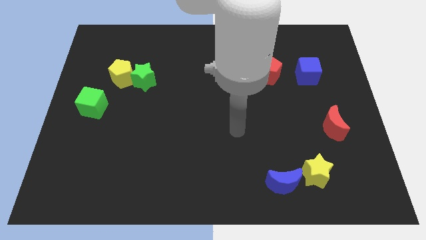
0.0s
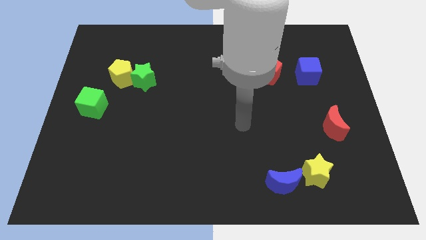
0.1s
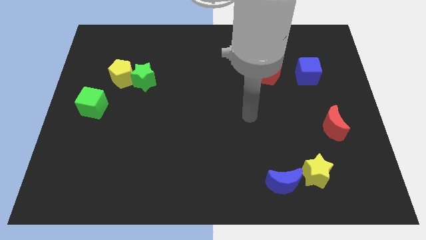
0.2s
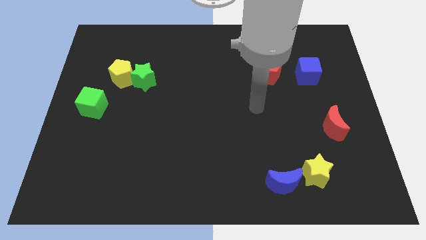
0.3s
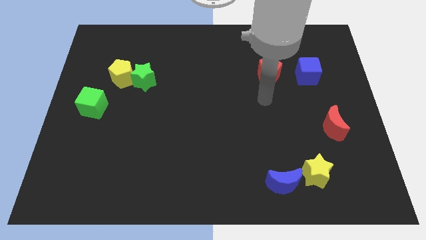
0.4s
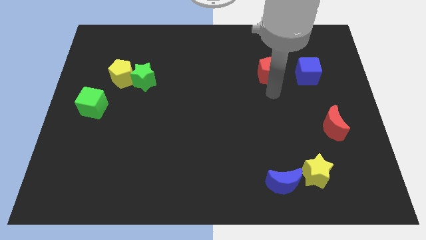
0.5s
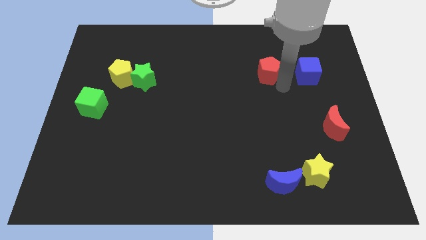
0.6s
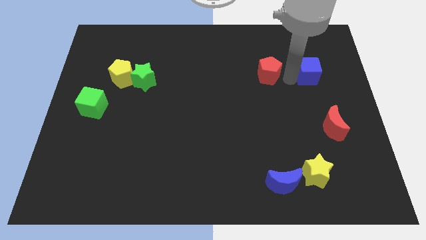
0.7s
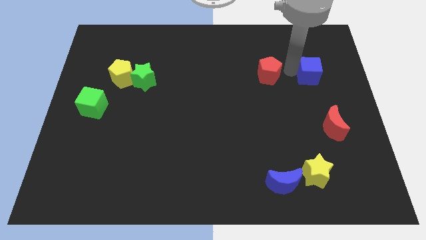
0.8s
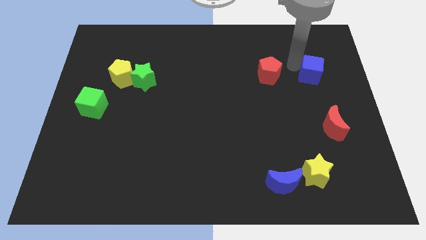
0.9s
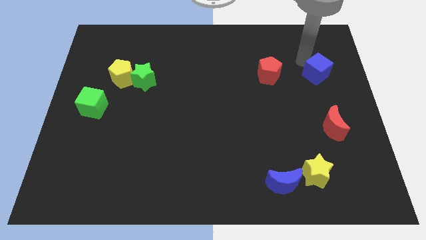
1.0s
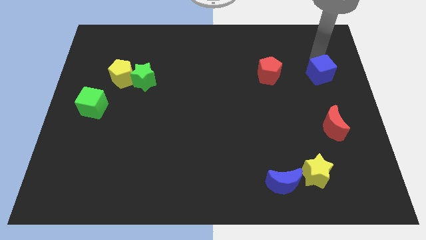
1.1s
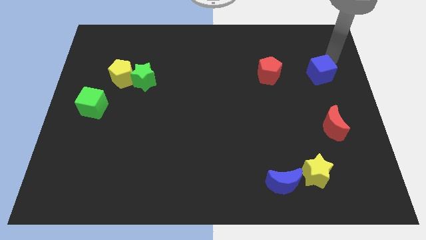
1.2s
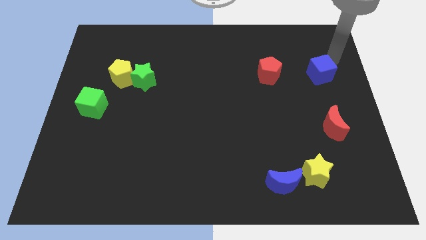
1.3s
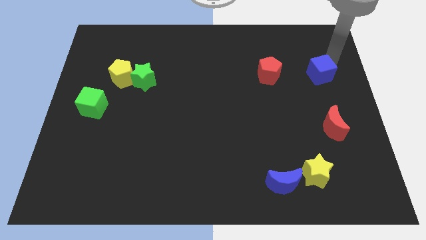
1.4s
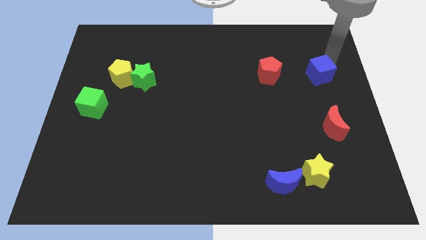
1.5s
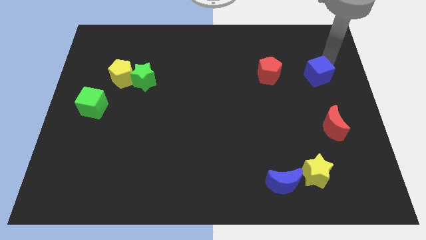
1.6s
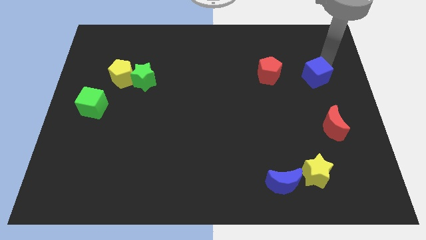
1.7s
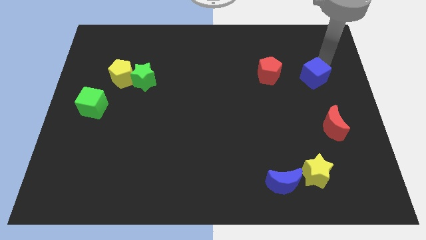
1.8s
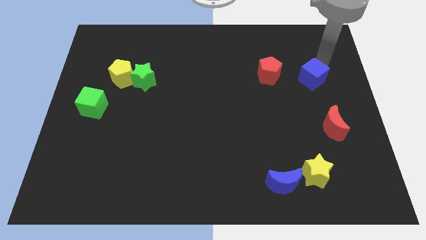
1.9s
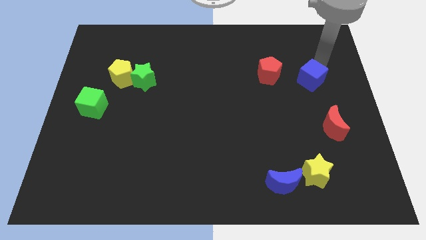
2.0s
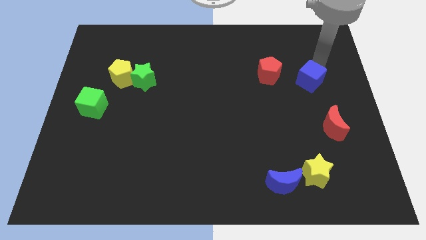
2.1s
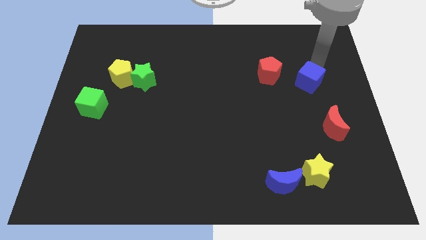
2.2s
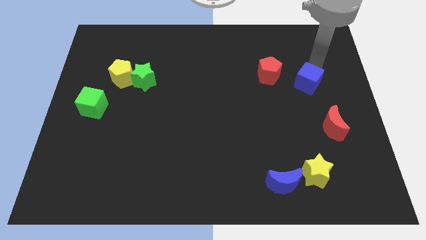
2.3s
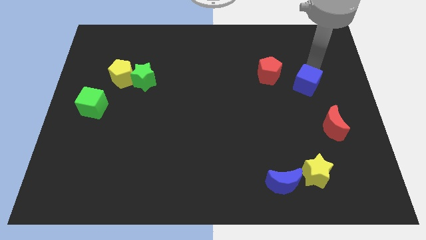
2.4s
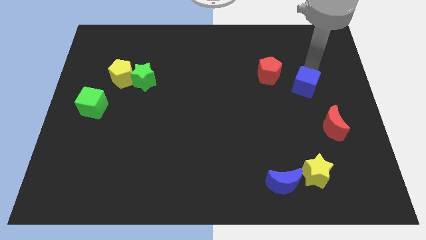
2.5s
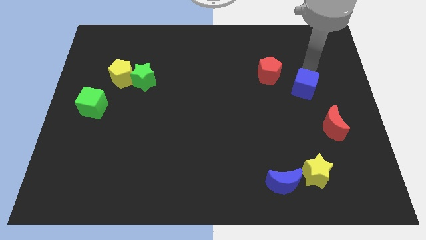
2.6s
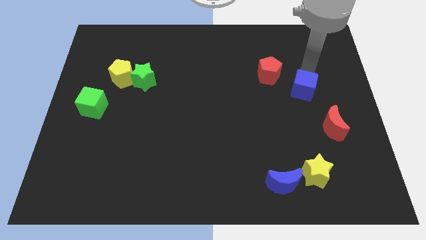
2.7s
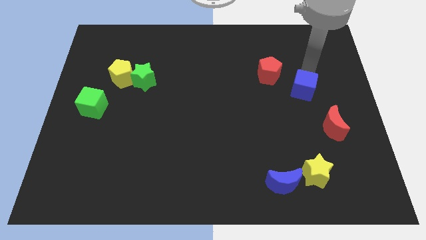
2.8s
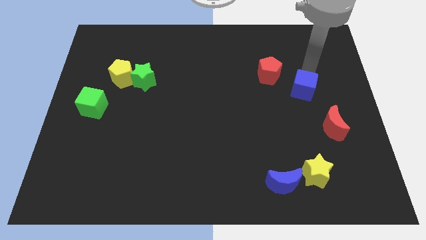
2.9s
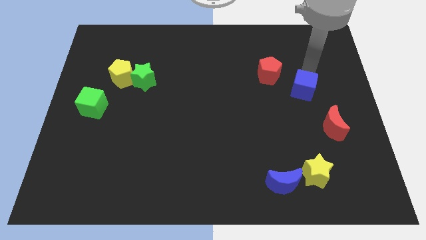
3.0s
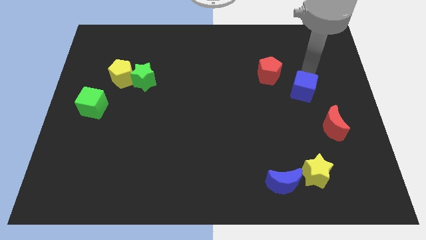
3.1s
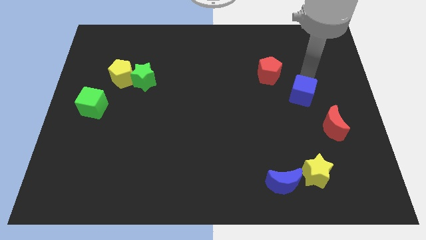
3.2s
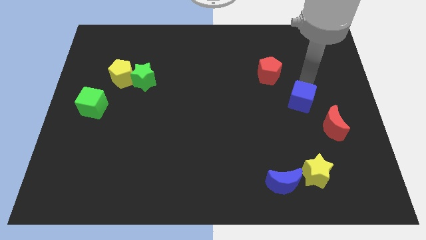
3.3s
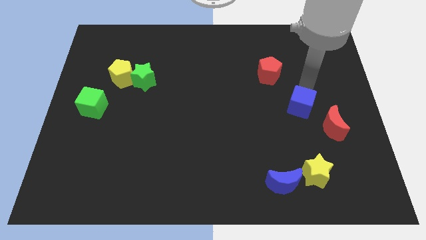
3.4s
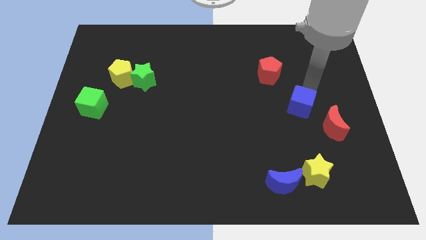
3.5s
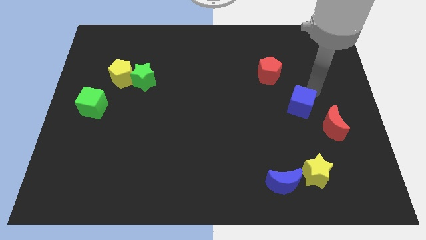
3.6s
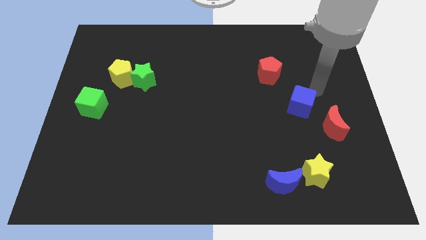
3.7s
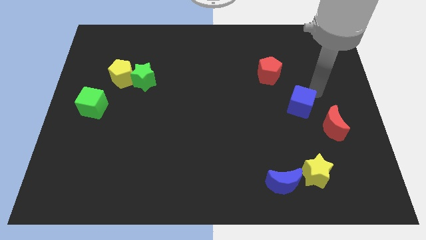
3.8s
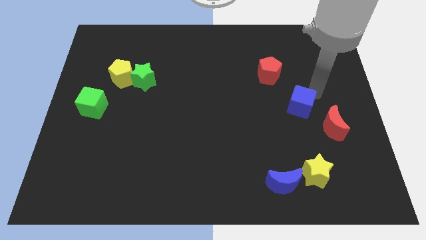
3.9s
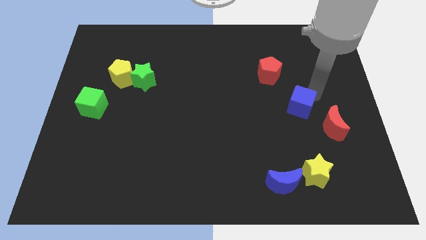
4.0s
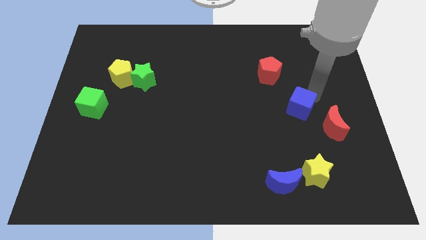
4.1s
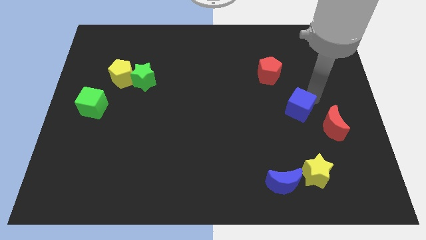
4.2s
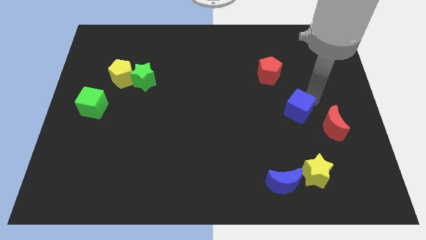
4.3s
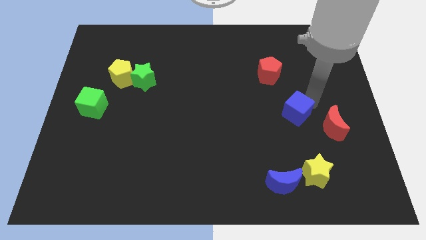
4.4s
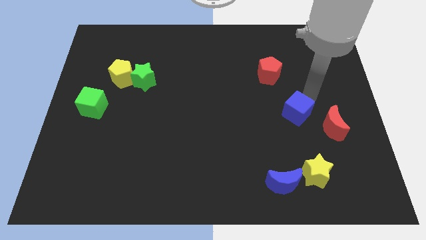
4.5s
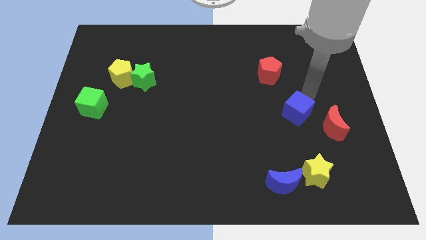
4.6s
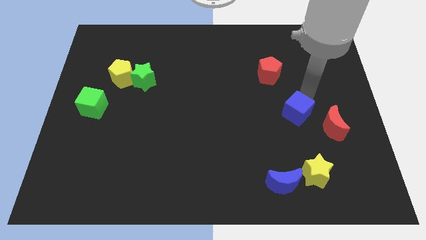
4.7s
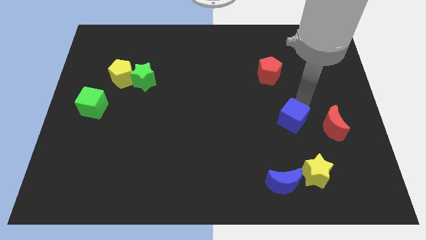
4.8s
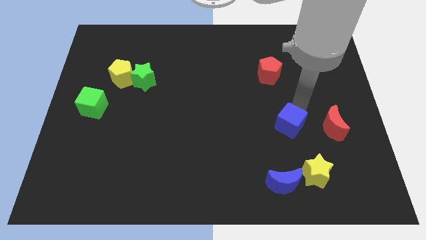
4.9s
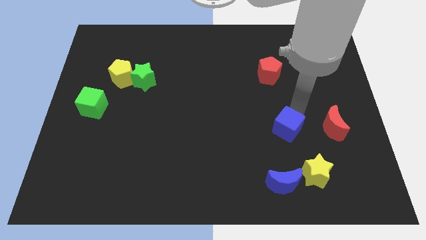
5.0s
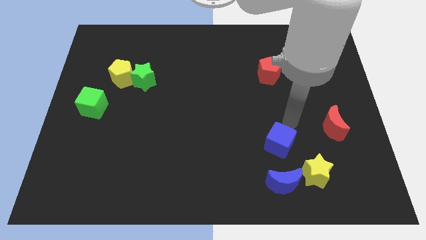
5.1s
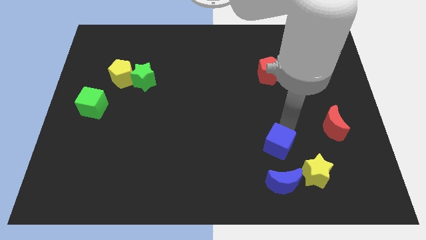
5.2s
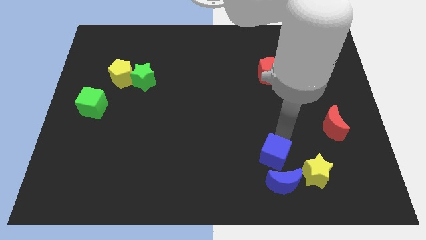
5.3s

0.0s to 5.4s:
move the blue cube to the left of the yellow star

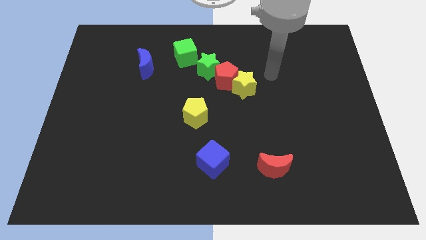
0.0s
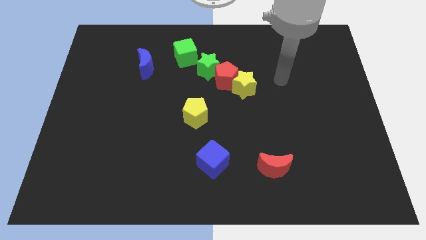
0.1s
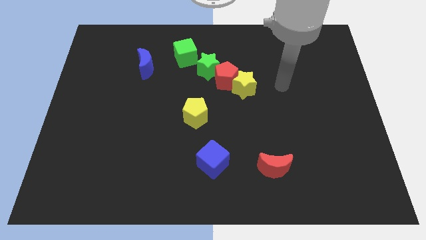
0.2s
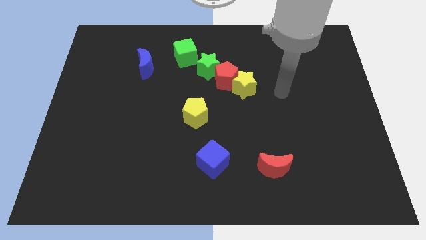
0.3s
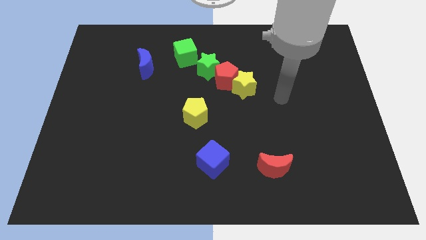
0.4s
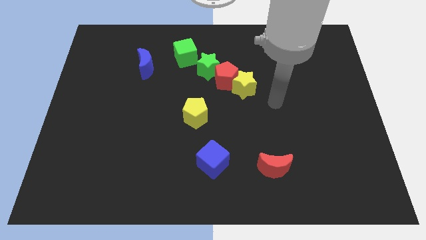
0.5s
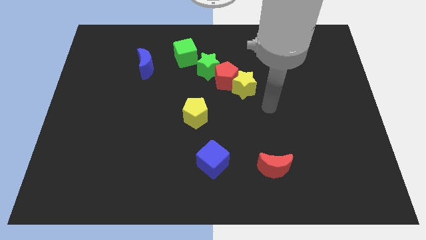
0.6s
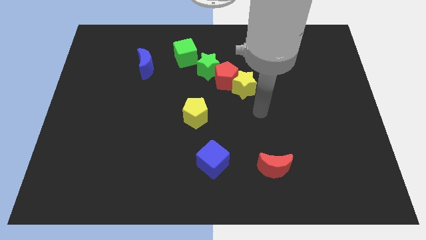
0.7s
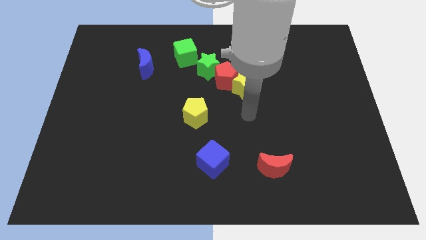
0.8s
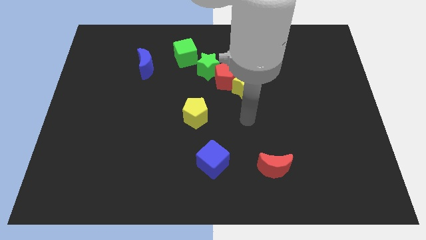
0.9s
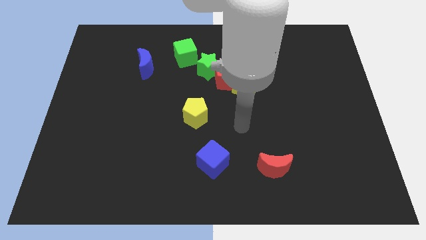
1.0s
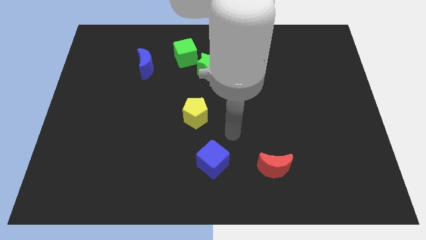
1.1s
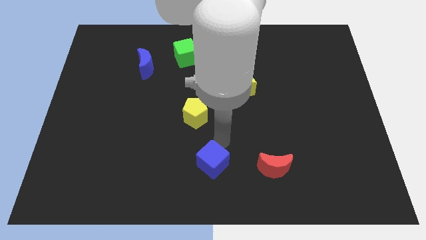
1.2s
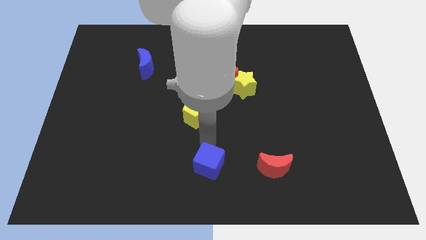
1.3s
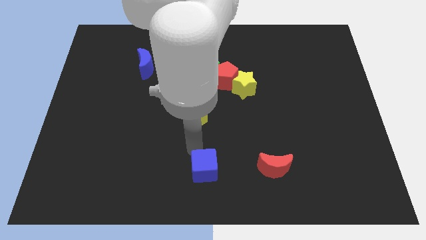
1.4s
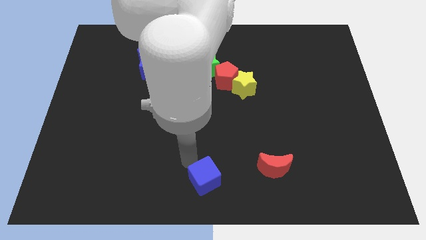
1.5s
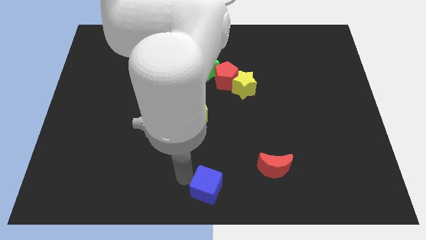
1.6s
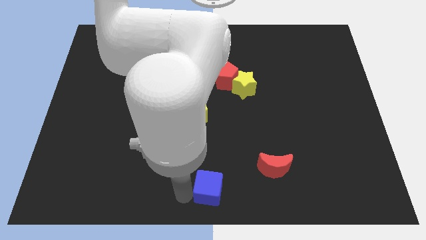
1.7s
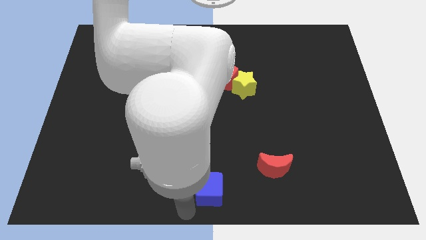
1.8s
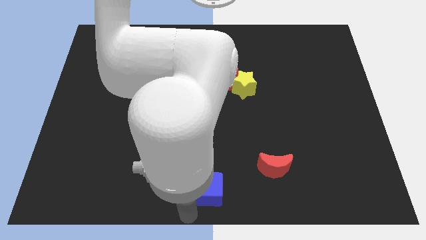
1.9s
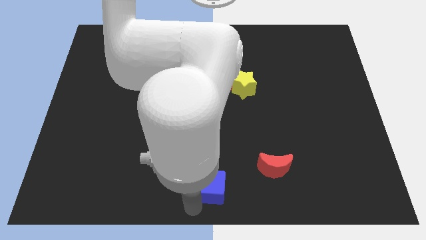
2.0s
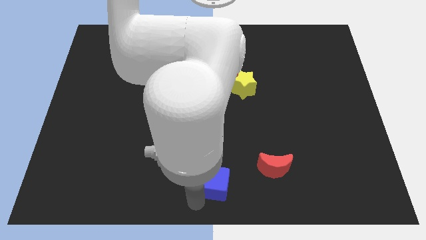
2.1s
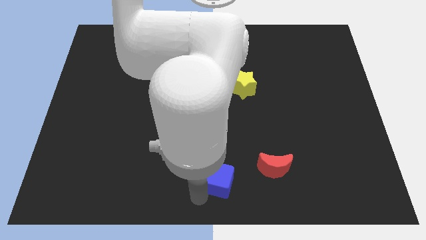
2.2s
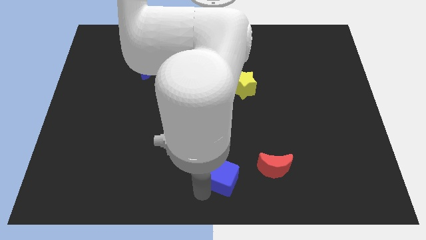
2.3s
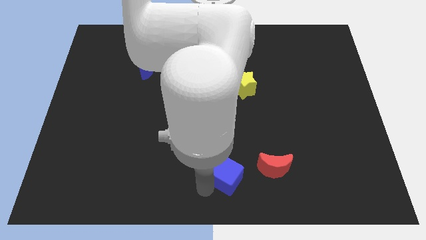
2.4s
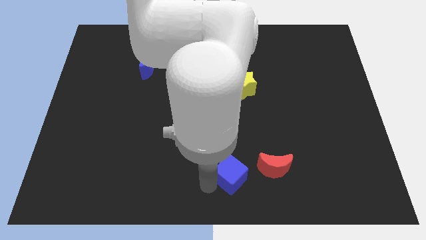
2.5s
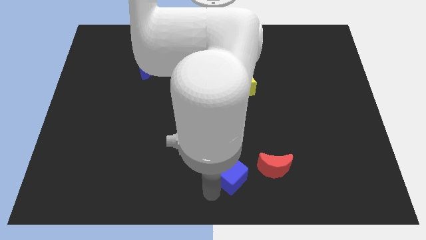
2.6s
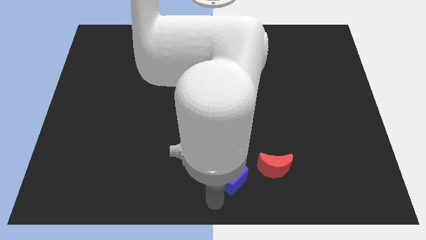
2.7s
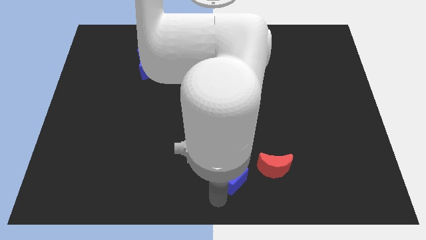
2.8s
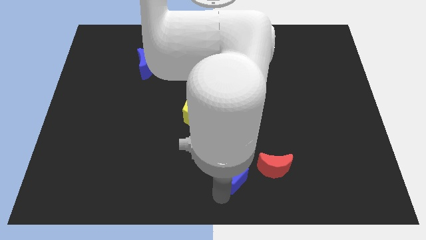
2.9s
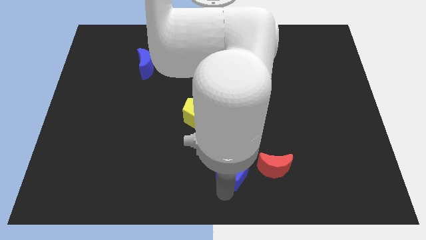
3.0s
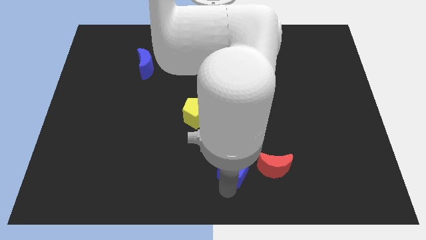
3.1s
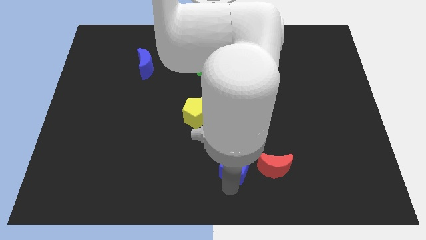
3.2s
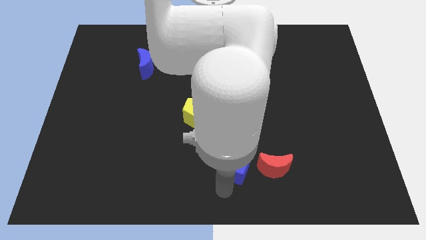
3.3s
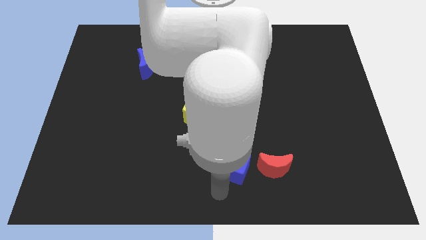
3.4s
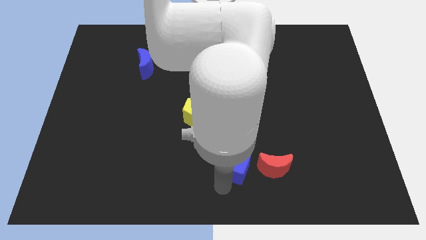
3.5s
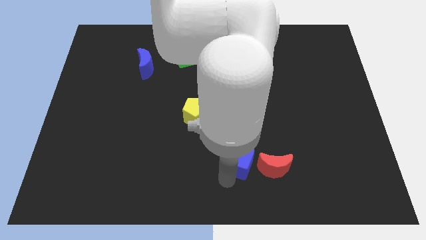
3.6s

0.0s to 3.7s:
push the blue cube to the top left side of the red moon
